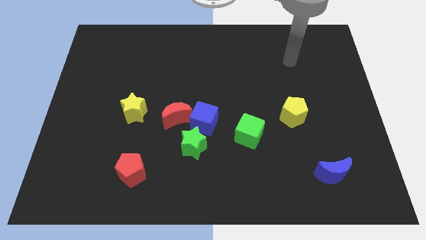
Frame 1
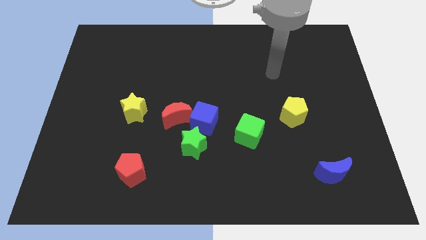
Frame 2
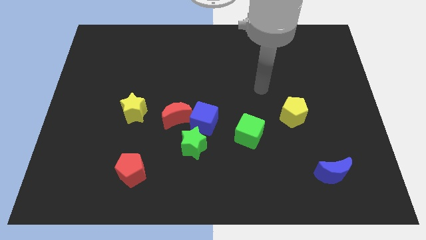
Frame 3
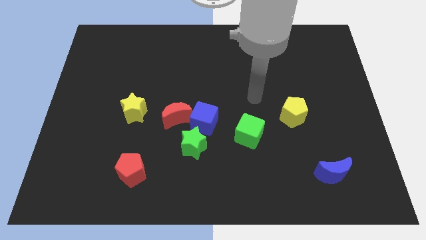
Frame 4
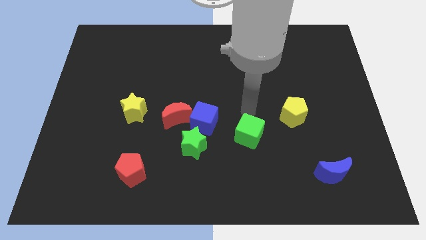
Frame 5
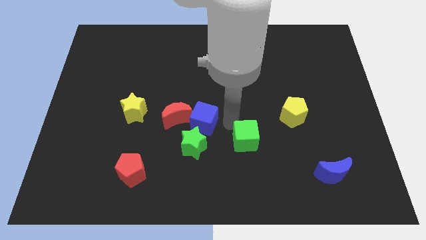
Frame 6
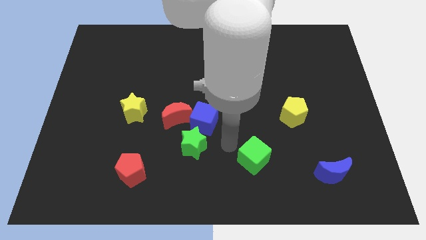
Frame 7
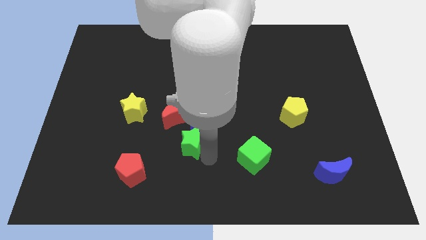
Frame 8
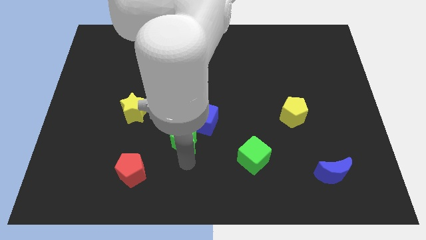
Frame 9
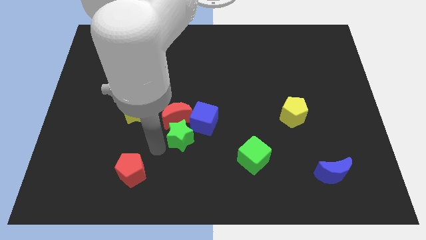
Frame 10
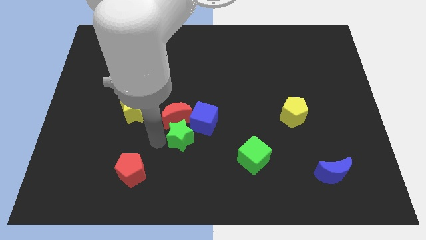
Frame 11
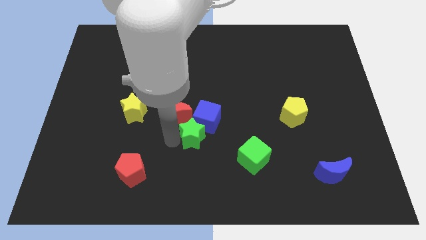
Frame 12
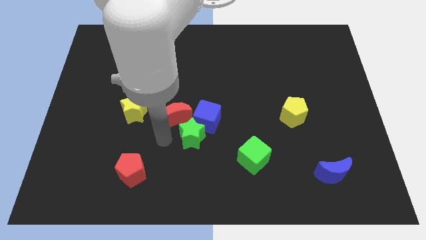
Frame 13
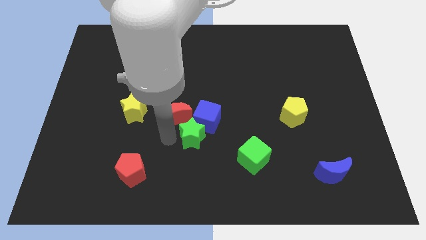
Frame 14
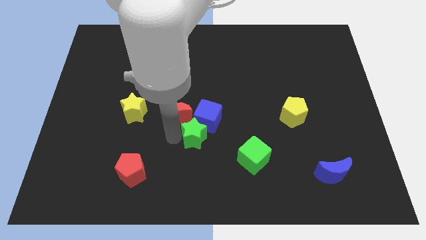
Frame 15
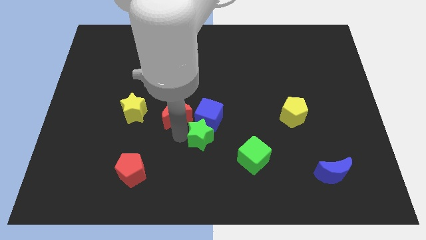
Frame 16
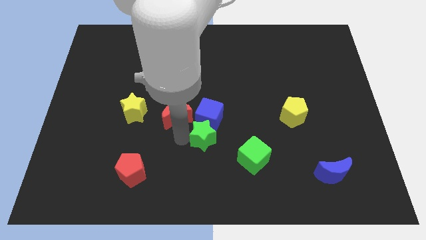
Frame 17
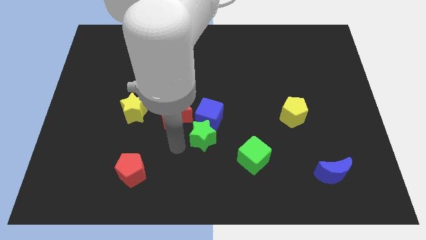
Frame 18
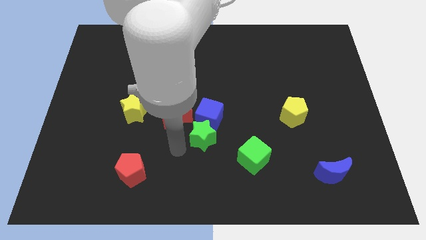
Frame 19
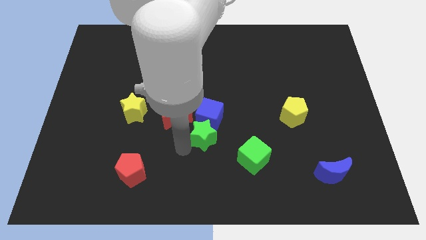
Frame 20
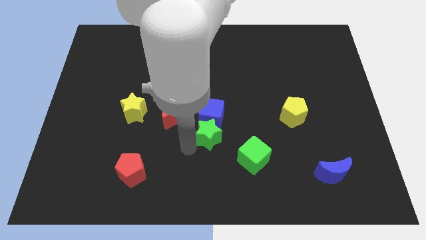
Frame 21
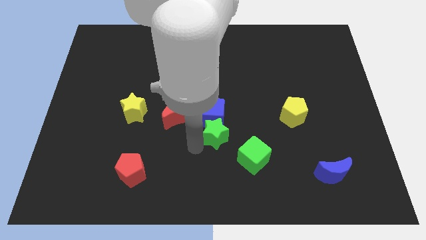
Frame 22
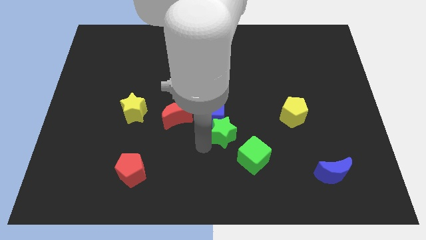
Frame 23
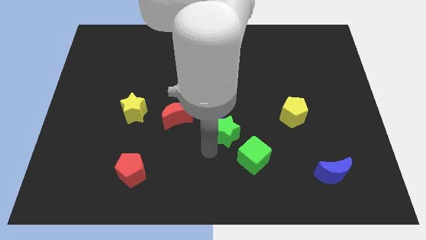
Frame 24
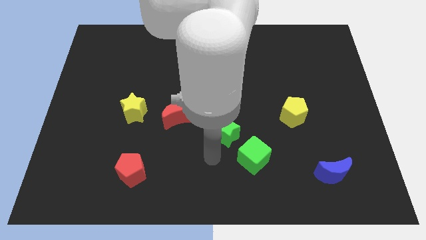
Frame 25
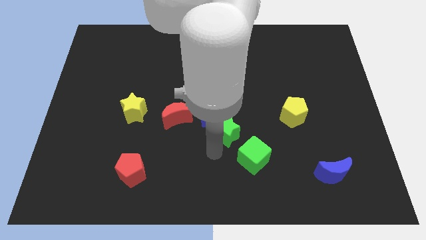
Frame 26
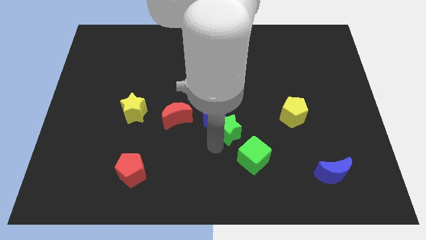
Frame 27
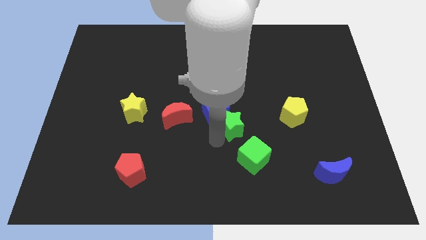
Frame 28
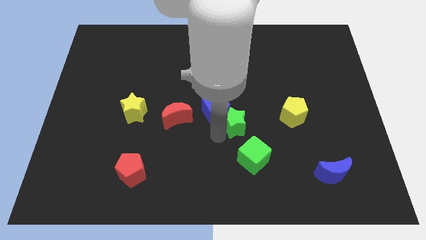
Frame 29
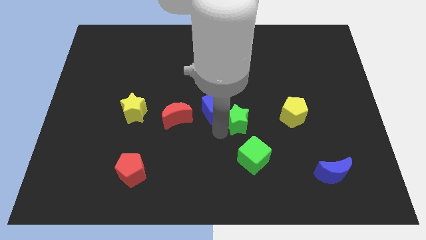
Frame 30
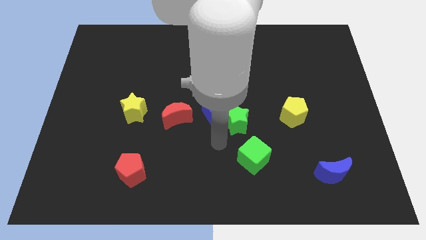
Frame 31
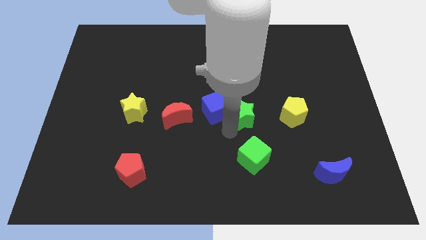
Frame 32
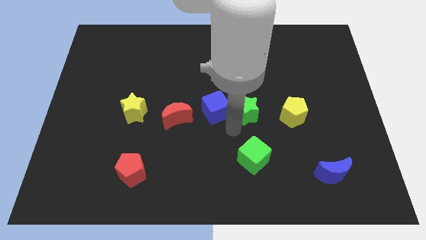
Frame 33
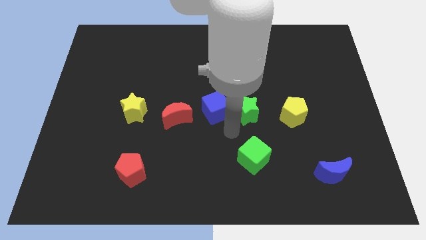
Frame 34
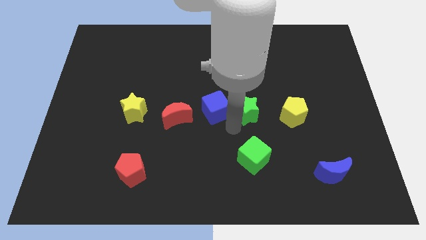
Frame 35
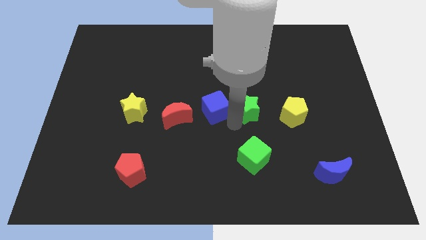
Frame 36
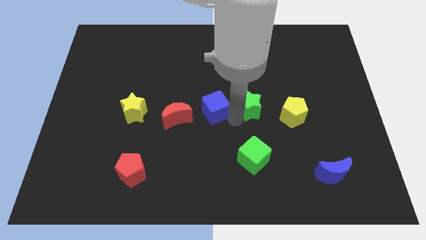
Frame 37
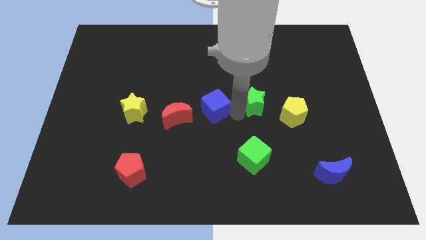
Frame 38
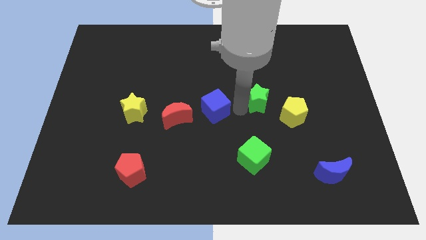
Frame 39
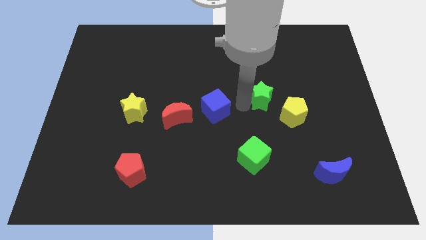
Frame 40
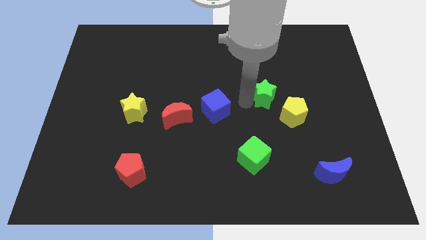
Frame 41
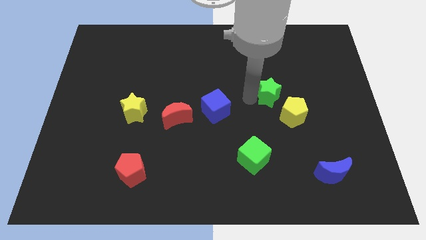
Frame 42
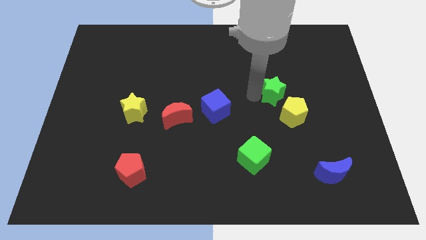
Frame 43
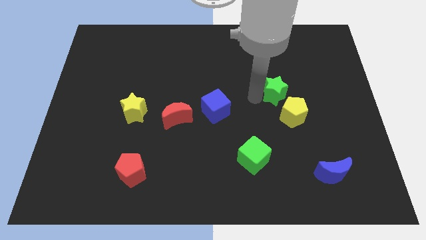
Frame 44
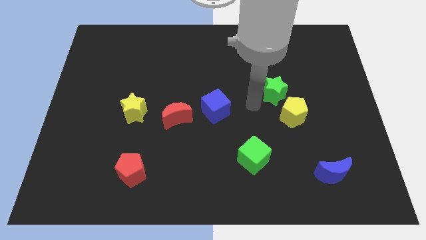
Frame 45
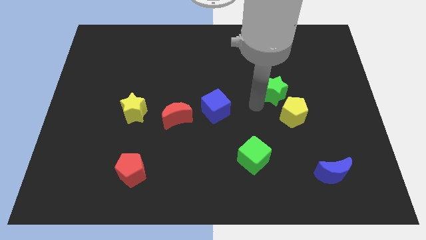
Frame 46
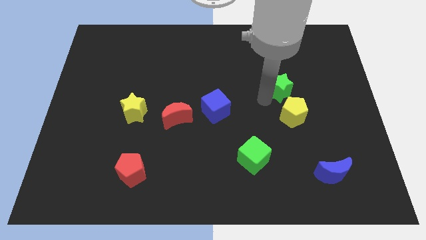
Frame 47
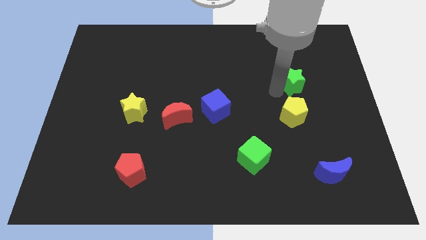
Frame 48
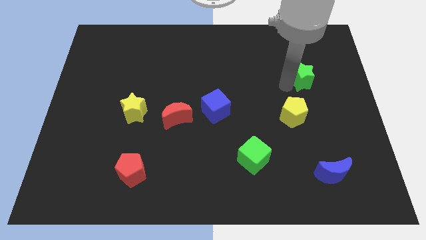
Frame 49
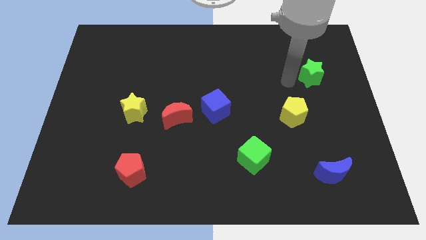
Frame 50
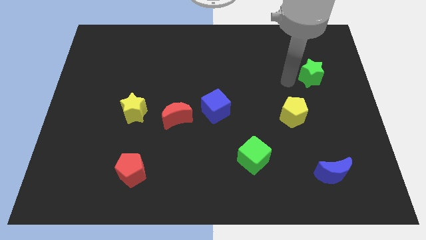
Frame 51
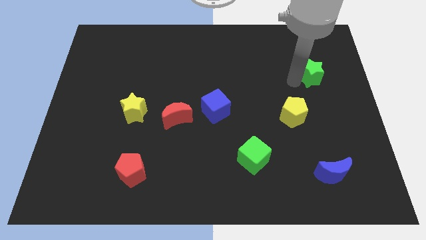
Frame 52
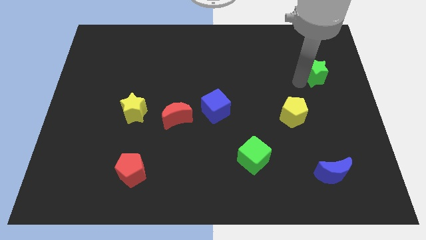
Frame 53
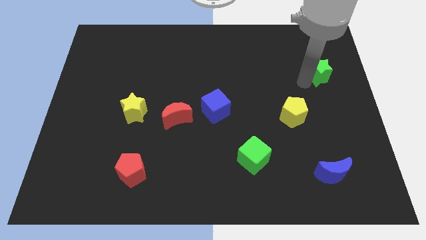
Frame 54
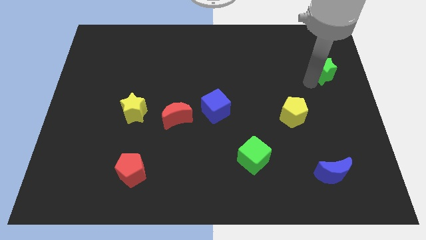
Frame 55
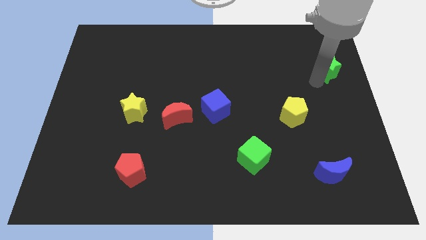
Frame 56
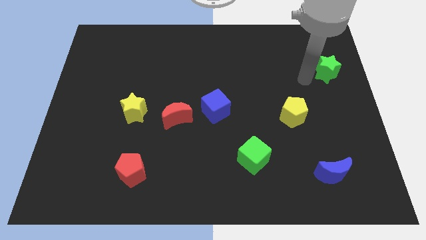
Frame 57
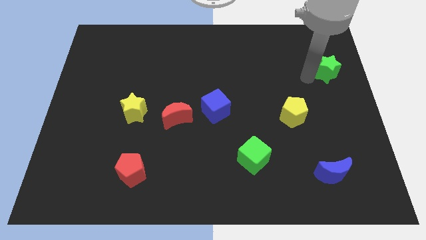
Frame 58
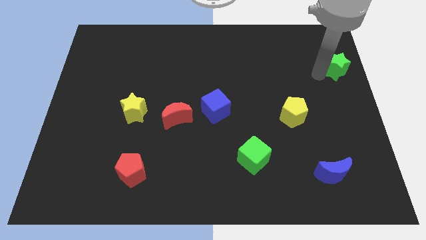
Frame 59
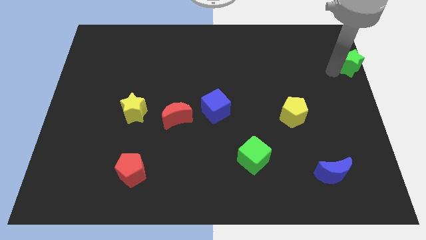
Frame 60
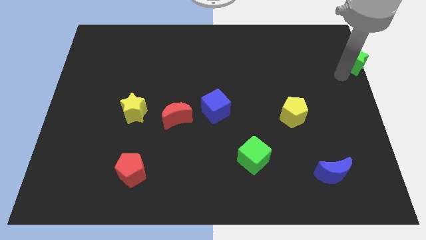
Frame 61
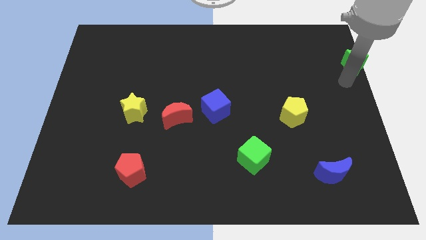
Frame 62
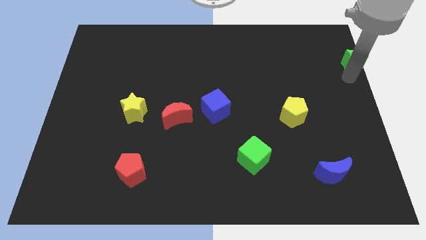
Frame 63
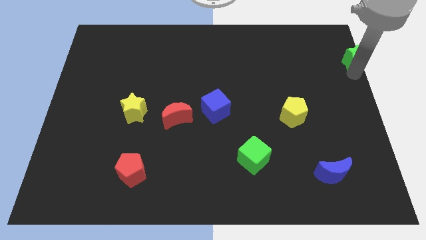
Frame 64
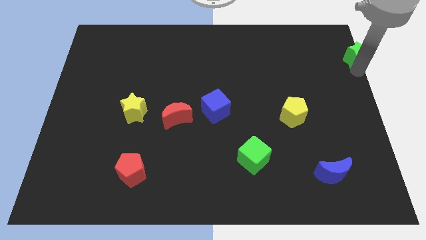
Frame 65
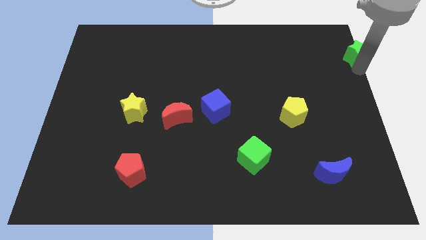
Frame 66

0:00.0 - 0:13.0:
move the green star to the top right corner
